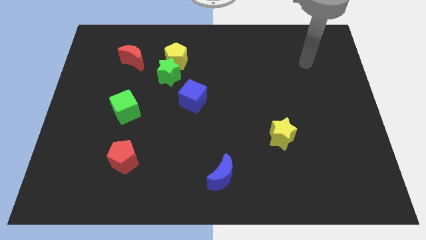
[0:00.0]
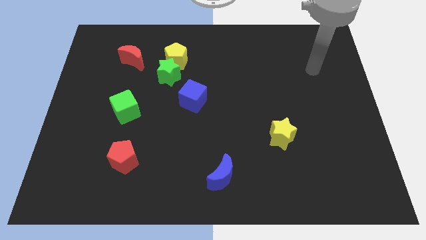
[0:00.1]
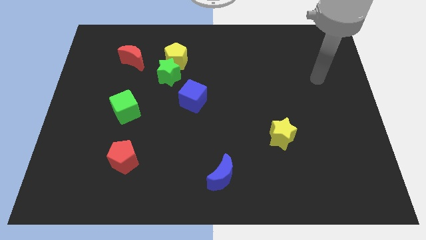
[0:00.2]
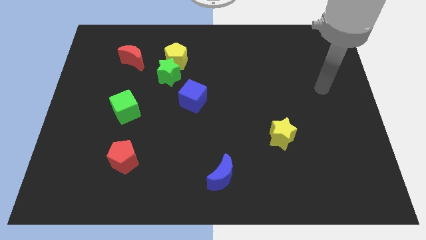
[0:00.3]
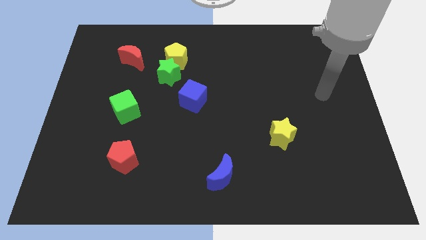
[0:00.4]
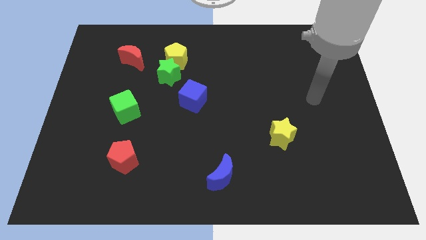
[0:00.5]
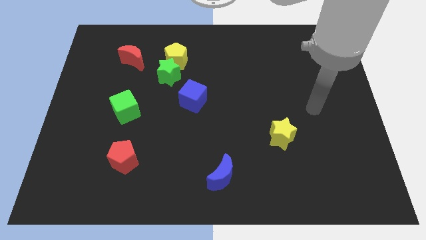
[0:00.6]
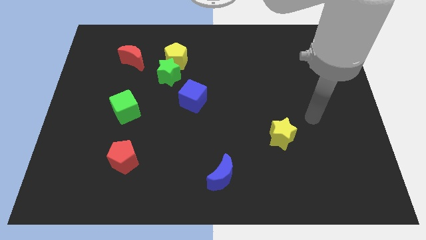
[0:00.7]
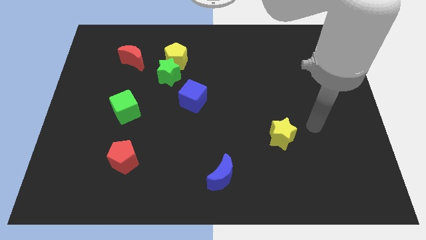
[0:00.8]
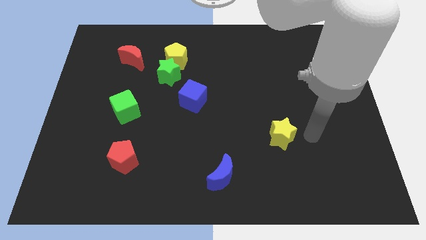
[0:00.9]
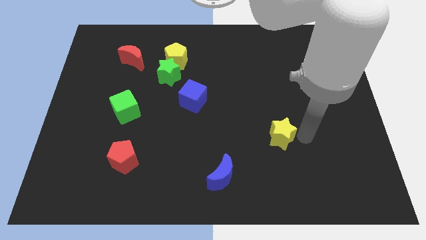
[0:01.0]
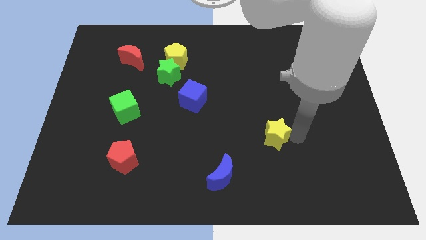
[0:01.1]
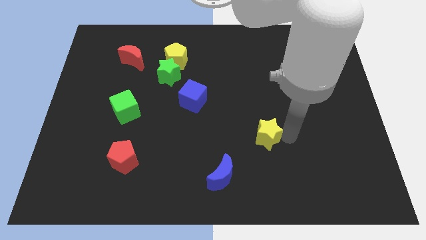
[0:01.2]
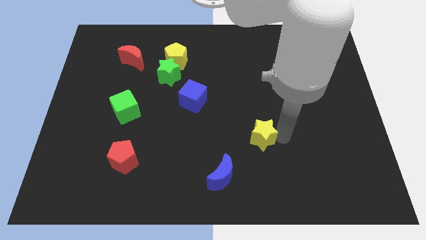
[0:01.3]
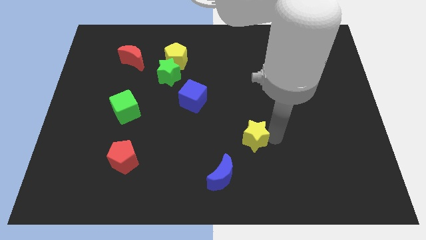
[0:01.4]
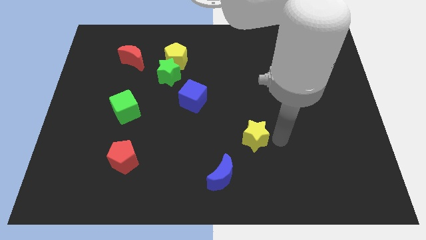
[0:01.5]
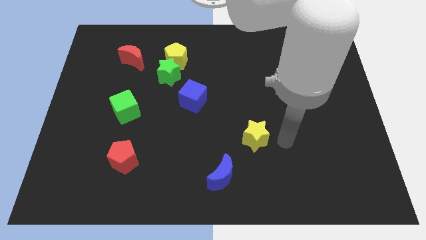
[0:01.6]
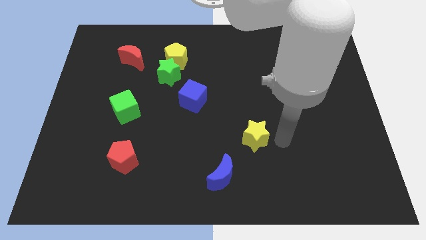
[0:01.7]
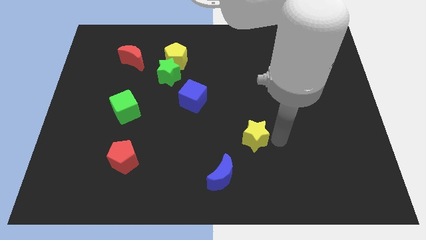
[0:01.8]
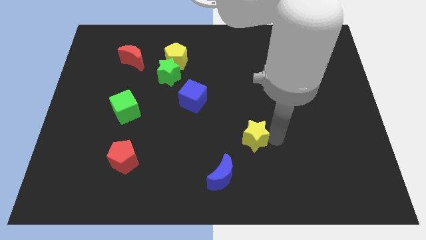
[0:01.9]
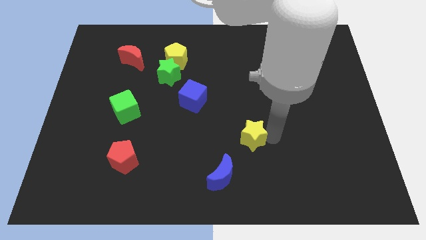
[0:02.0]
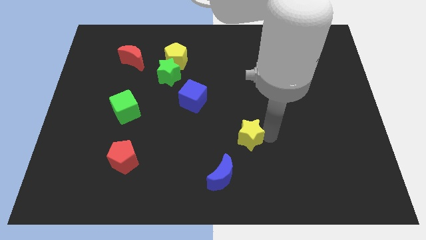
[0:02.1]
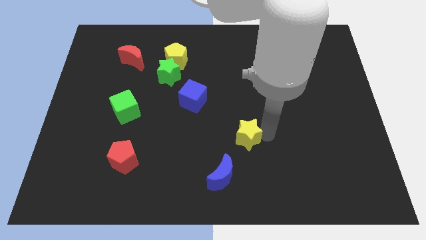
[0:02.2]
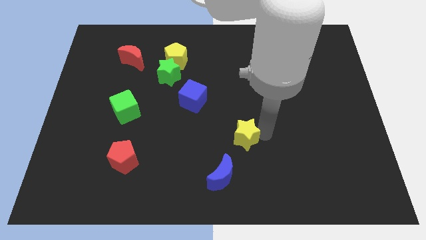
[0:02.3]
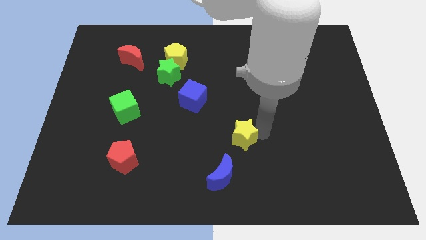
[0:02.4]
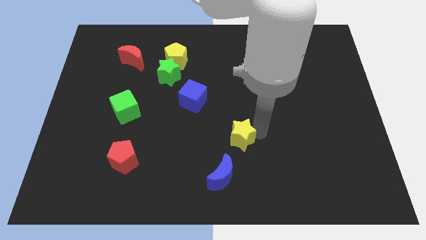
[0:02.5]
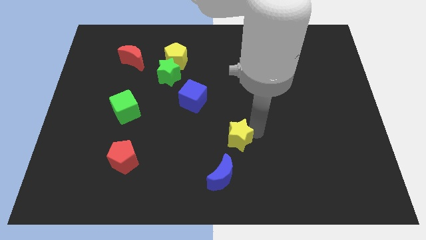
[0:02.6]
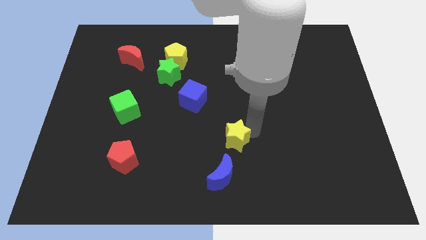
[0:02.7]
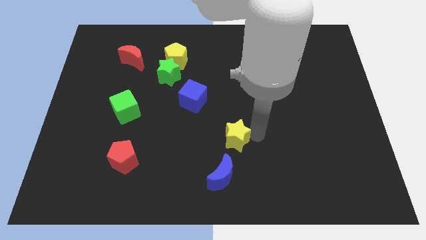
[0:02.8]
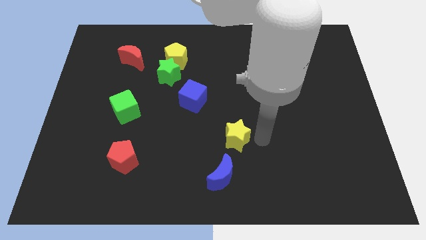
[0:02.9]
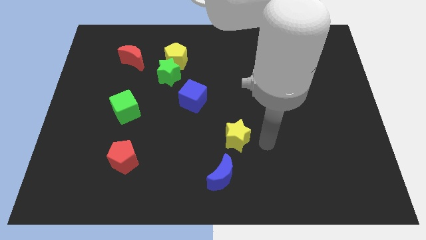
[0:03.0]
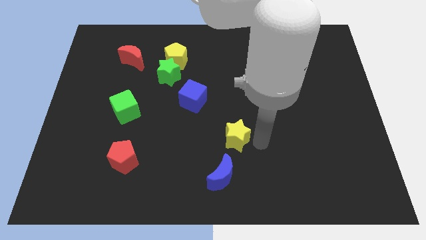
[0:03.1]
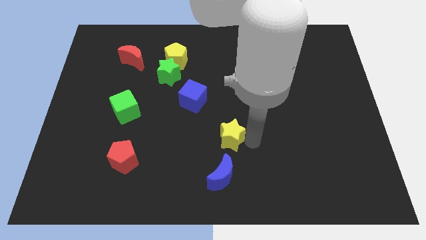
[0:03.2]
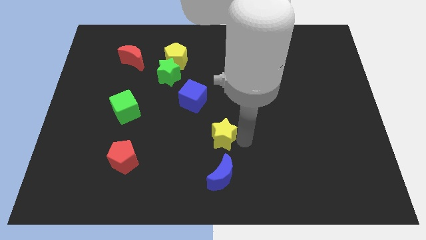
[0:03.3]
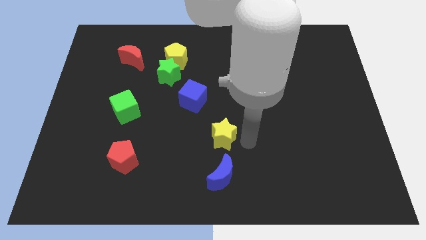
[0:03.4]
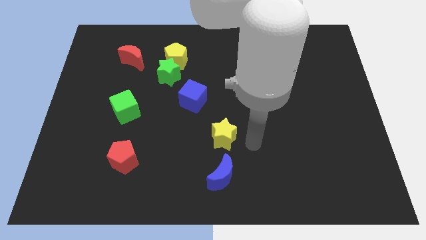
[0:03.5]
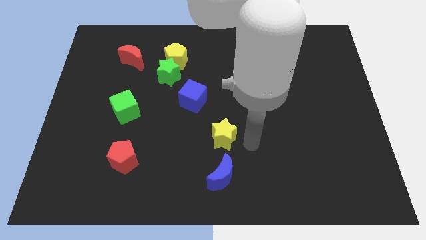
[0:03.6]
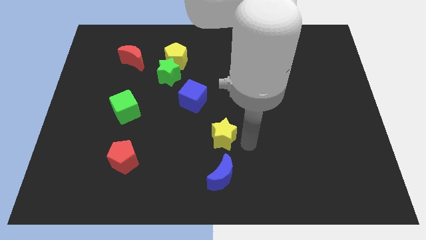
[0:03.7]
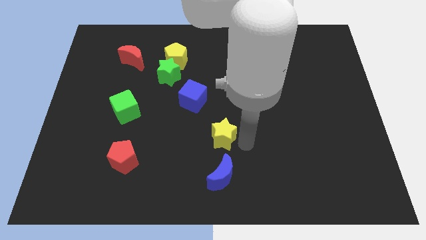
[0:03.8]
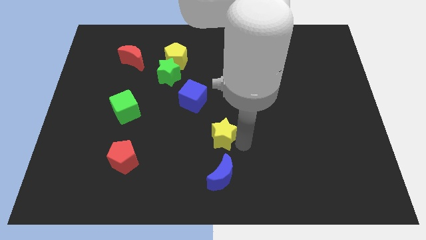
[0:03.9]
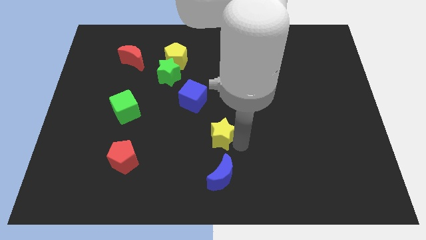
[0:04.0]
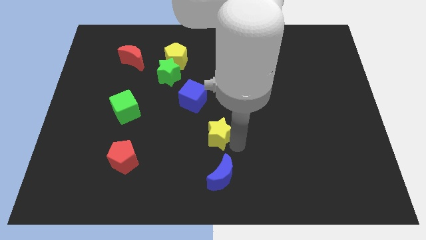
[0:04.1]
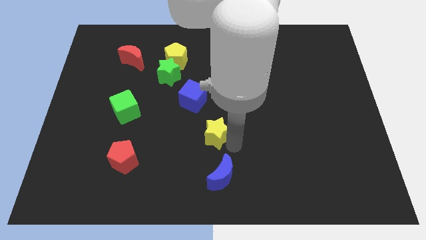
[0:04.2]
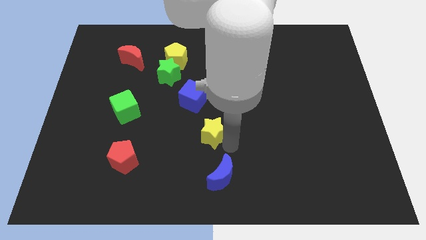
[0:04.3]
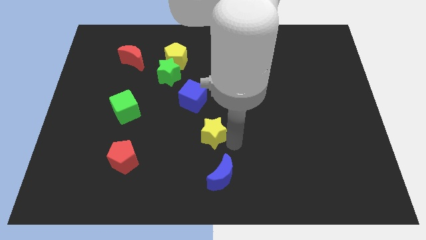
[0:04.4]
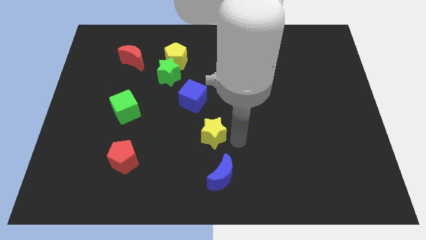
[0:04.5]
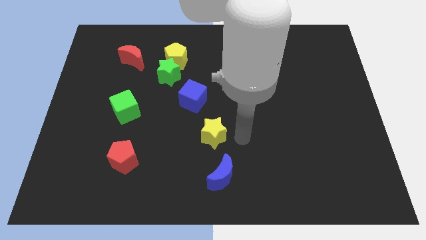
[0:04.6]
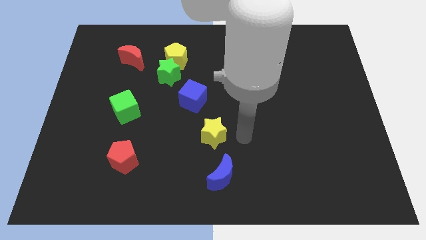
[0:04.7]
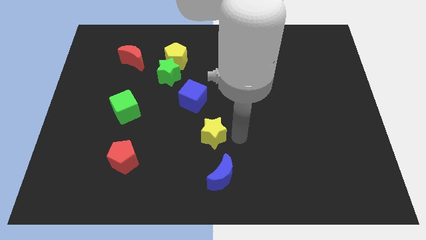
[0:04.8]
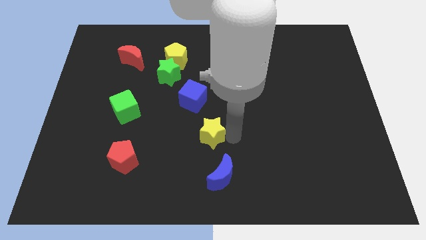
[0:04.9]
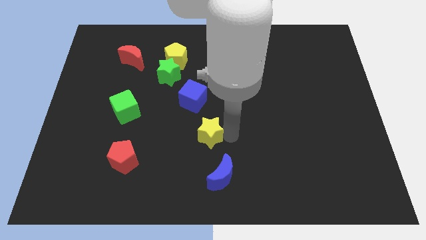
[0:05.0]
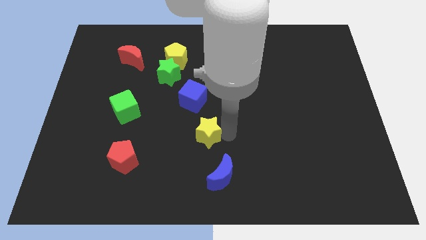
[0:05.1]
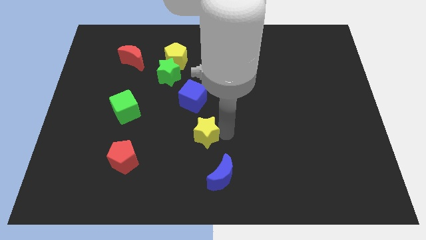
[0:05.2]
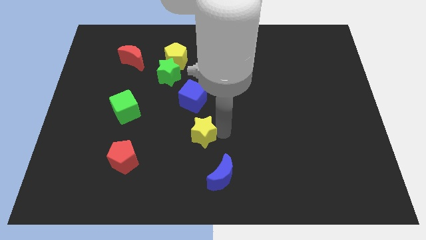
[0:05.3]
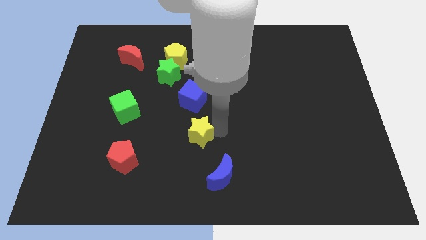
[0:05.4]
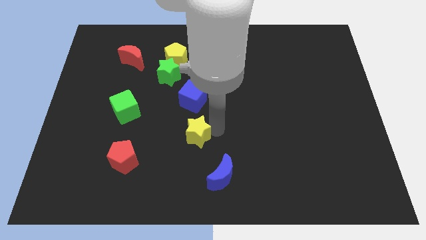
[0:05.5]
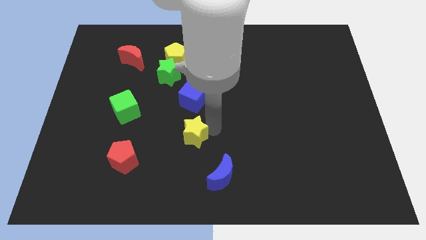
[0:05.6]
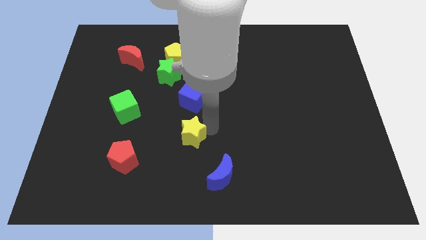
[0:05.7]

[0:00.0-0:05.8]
slide the yellow star to the left

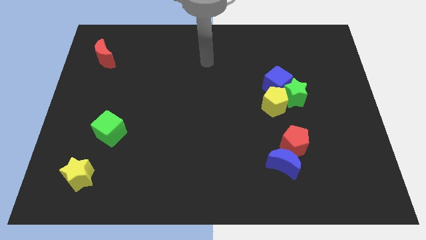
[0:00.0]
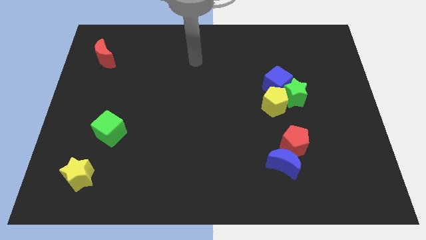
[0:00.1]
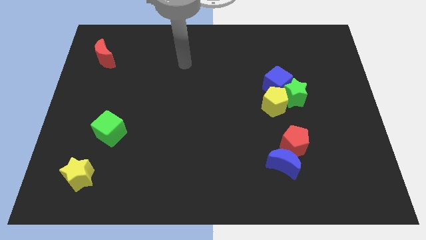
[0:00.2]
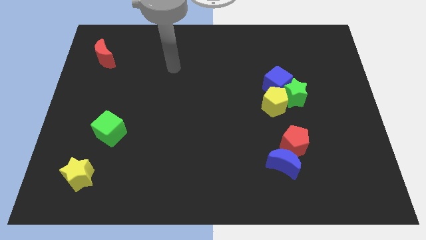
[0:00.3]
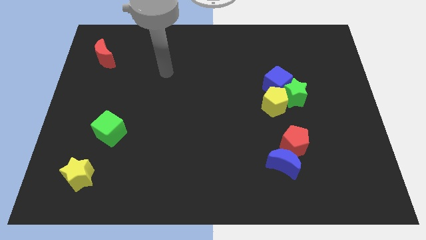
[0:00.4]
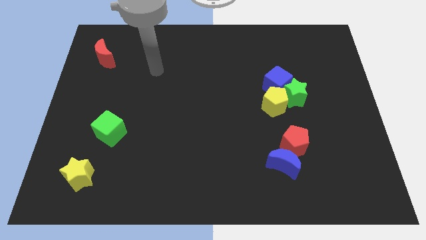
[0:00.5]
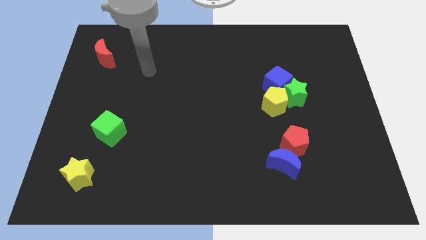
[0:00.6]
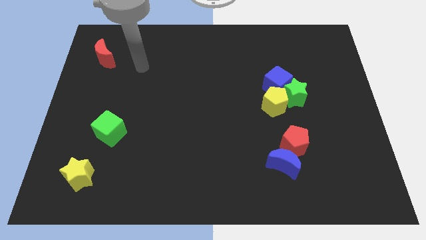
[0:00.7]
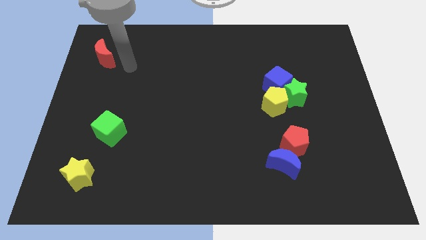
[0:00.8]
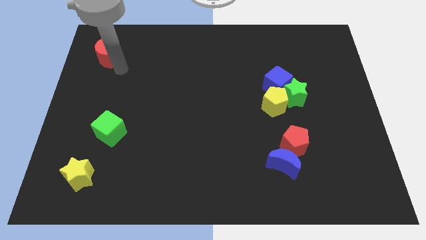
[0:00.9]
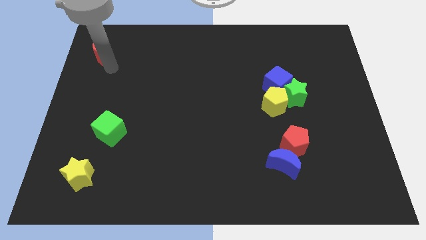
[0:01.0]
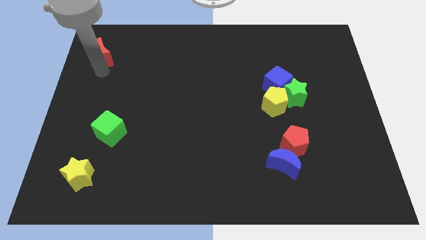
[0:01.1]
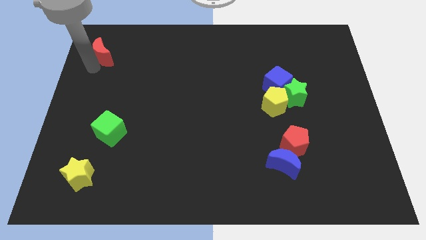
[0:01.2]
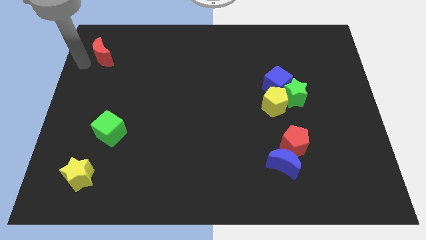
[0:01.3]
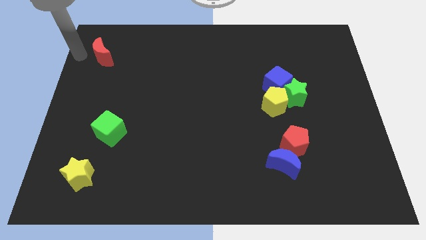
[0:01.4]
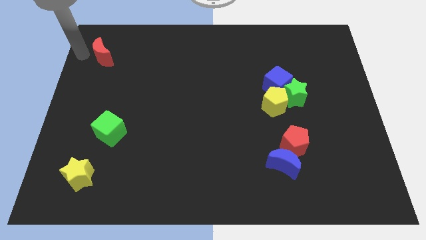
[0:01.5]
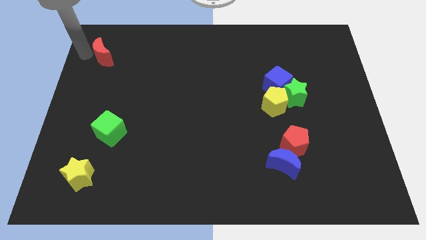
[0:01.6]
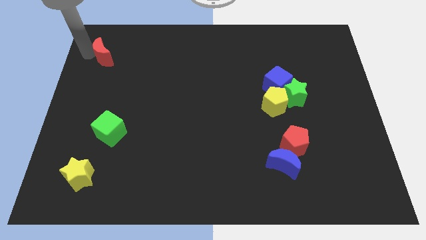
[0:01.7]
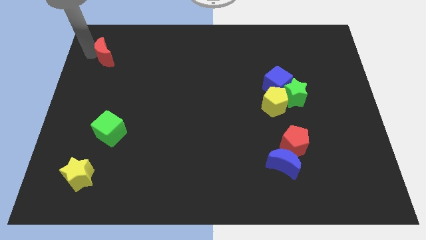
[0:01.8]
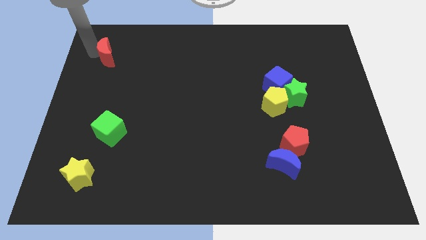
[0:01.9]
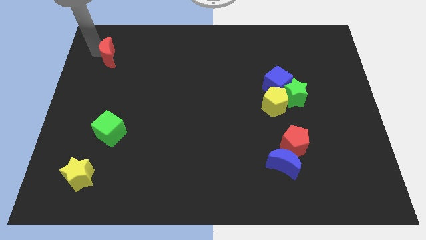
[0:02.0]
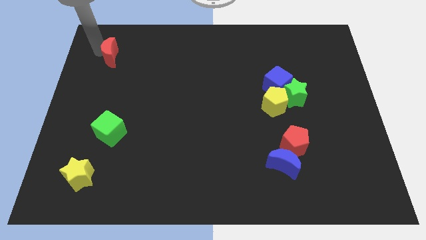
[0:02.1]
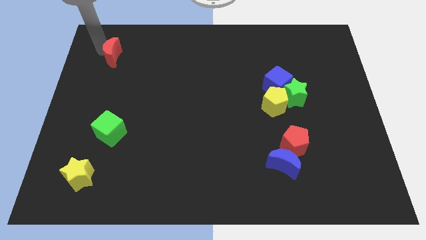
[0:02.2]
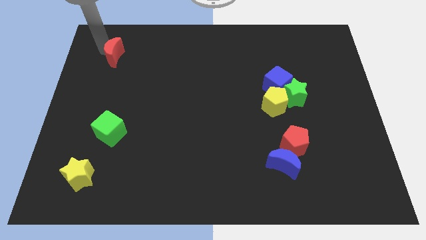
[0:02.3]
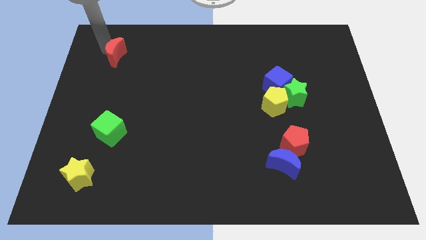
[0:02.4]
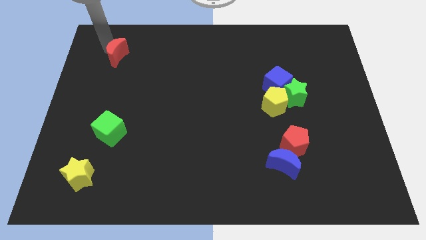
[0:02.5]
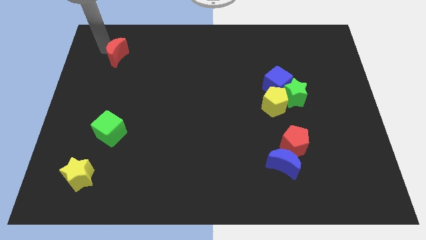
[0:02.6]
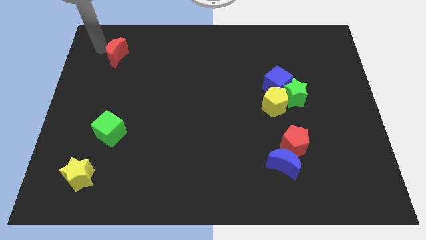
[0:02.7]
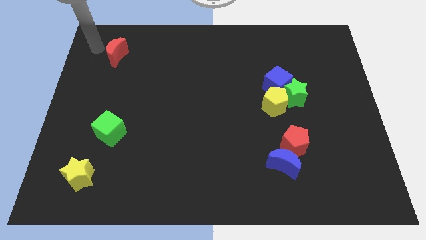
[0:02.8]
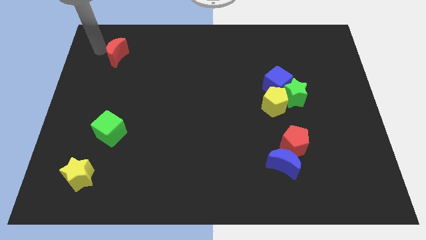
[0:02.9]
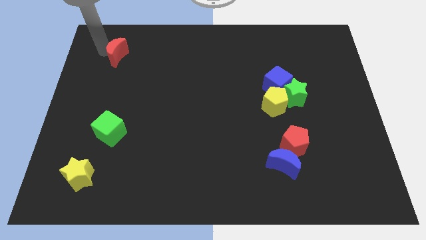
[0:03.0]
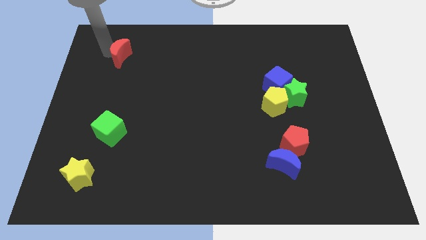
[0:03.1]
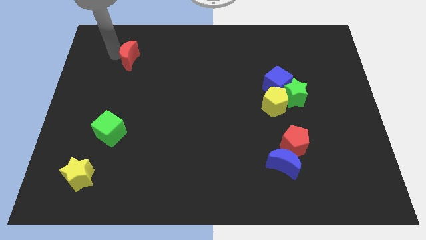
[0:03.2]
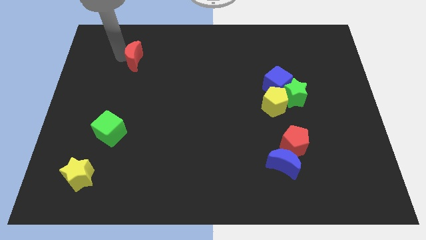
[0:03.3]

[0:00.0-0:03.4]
move the red moon to the right somewhat
